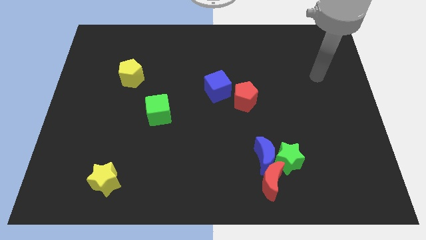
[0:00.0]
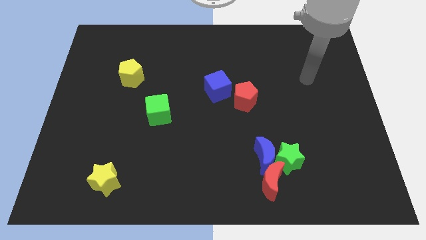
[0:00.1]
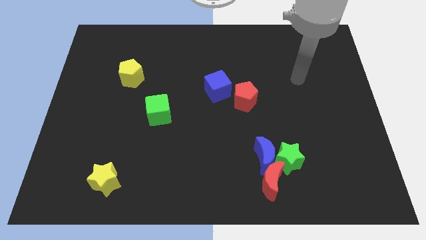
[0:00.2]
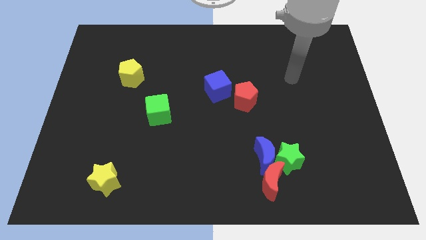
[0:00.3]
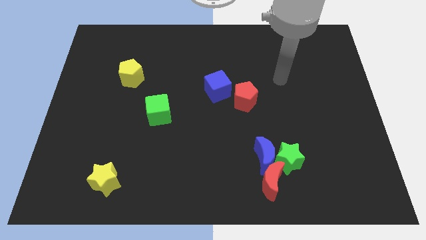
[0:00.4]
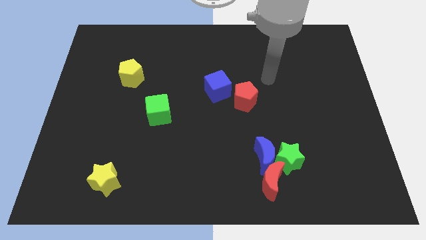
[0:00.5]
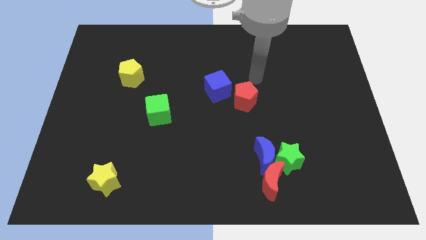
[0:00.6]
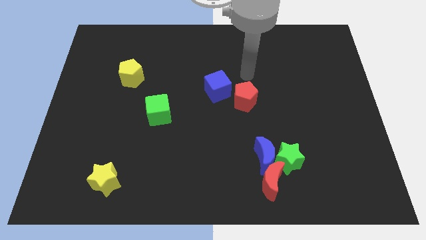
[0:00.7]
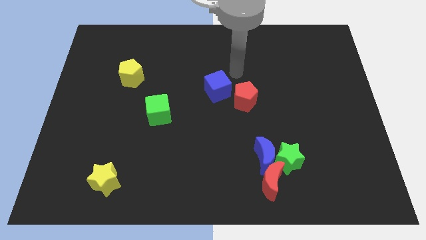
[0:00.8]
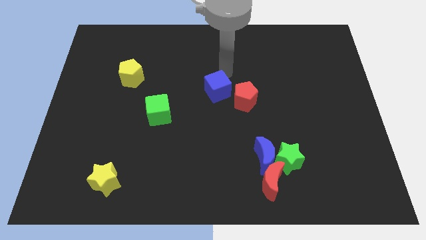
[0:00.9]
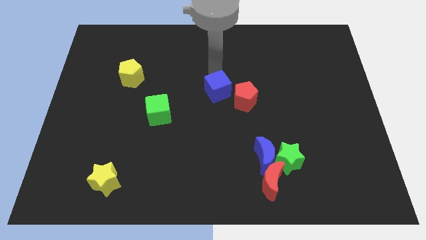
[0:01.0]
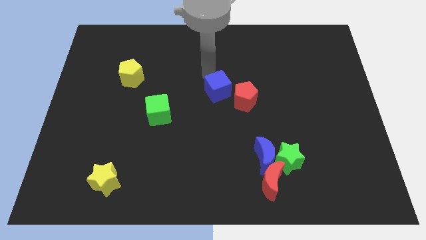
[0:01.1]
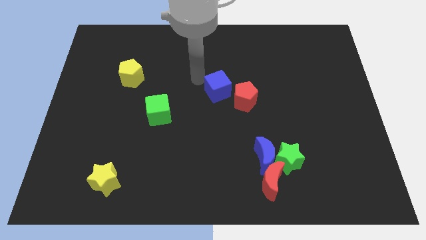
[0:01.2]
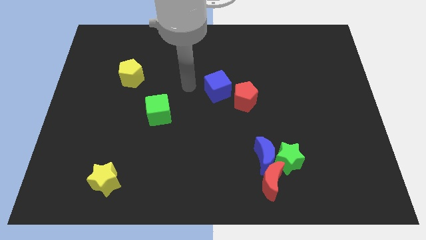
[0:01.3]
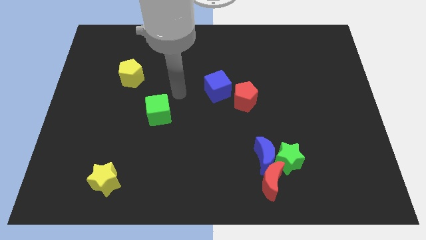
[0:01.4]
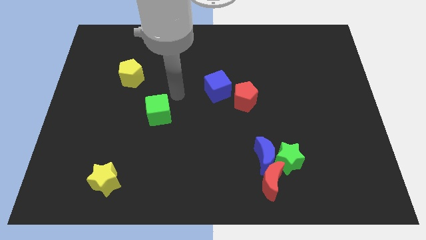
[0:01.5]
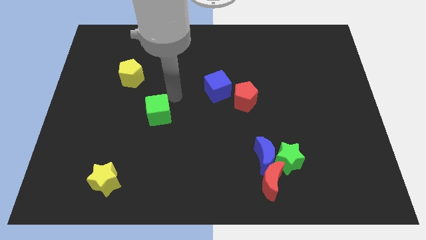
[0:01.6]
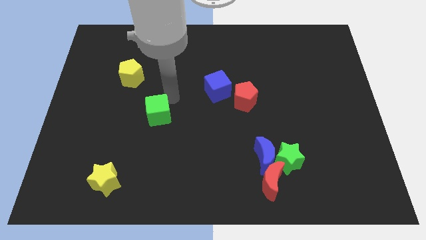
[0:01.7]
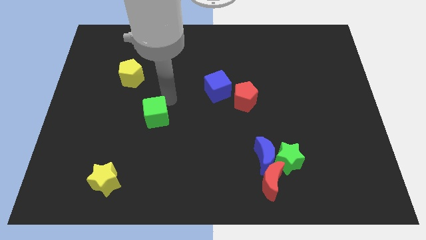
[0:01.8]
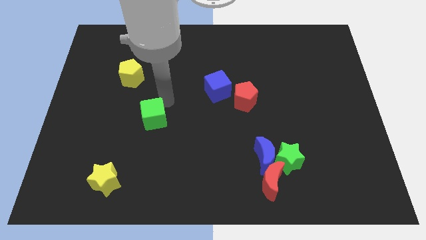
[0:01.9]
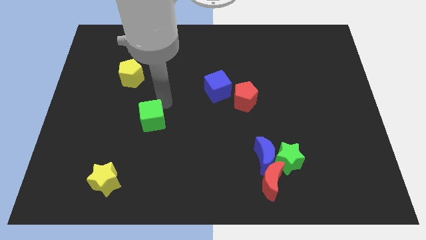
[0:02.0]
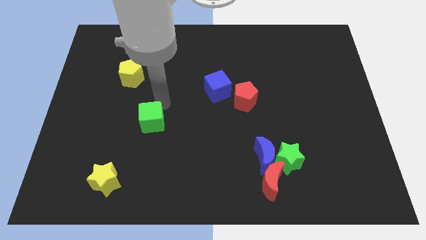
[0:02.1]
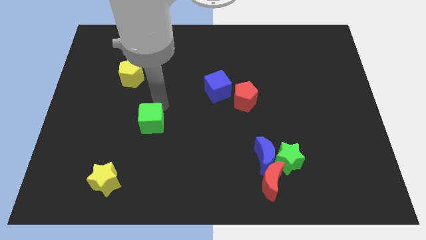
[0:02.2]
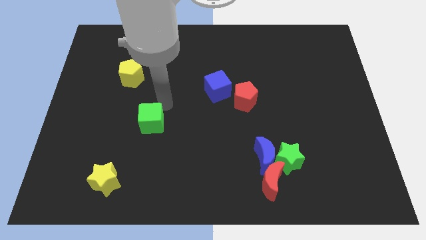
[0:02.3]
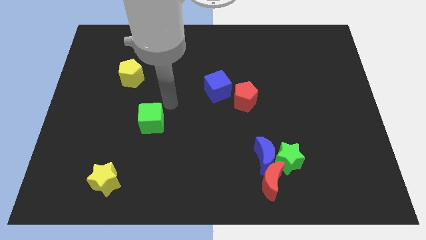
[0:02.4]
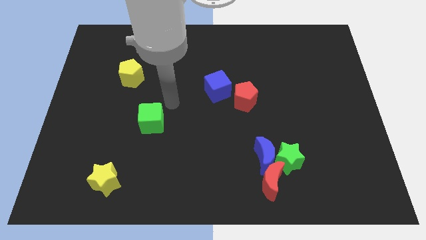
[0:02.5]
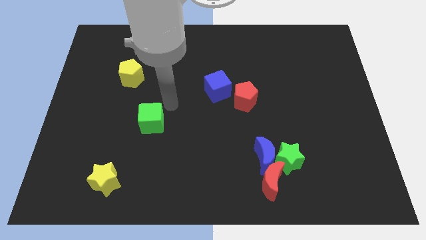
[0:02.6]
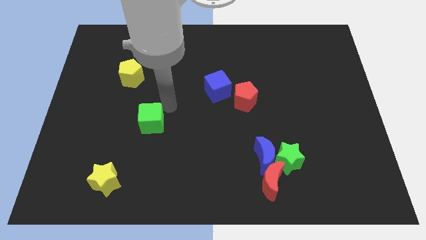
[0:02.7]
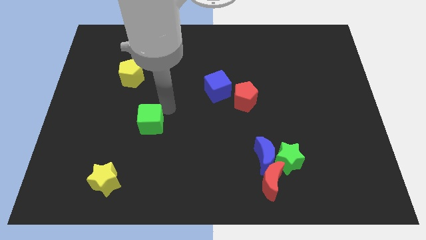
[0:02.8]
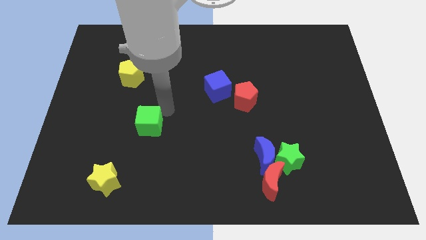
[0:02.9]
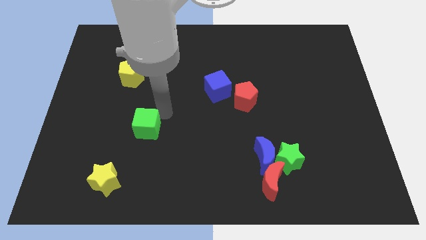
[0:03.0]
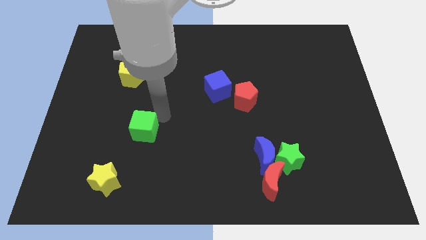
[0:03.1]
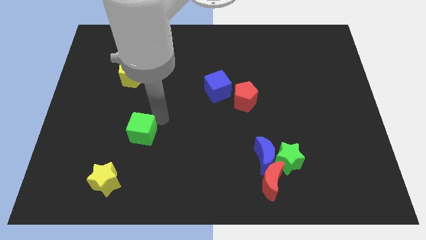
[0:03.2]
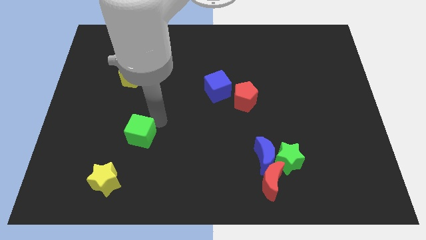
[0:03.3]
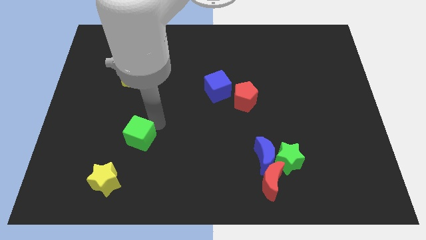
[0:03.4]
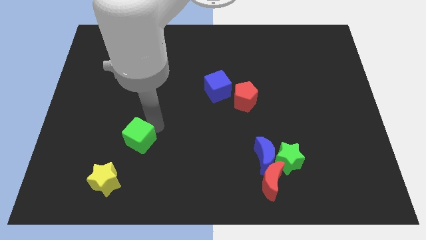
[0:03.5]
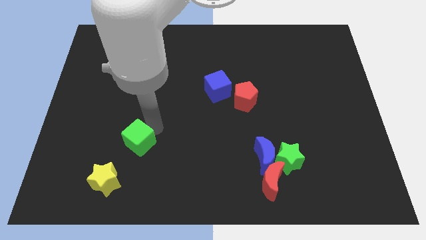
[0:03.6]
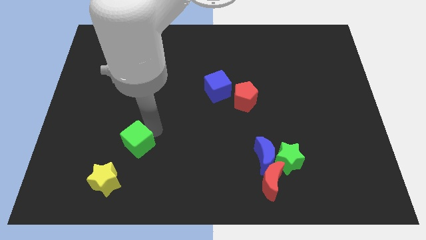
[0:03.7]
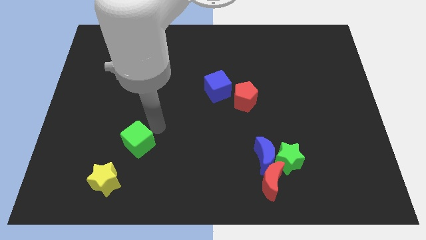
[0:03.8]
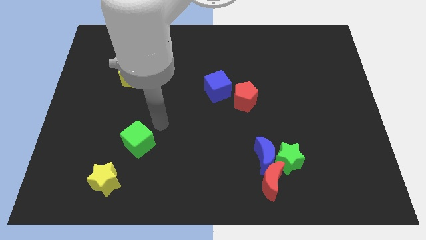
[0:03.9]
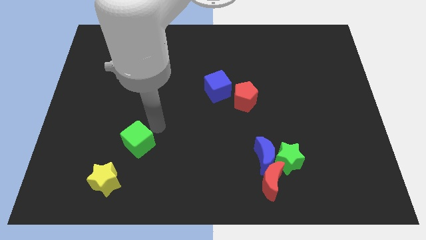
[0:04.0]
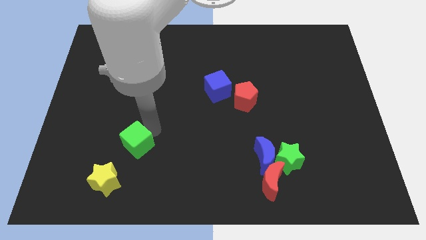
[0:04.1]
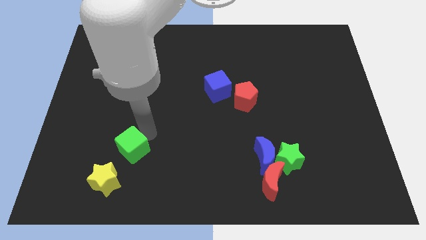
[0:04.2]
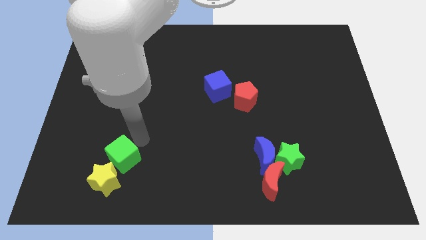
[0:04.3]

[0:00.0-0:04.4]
slide the green cube close to the yellow star

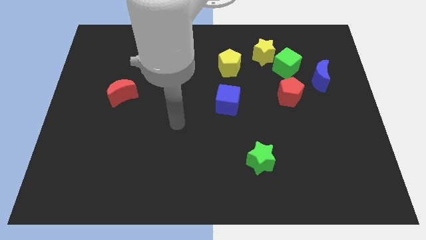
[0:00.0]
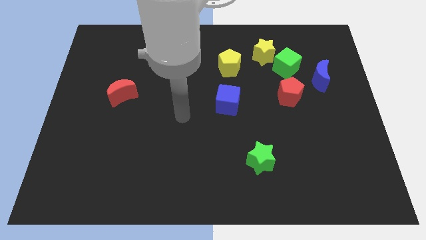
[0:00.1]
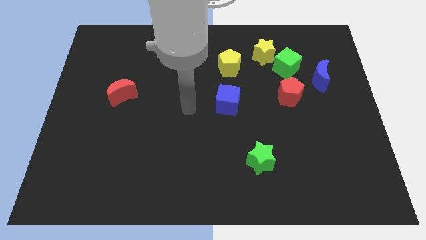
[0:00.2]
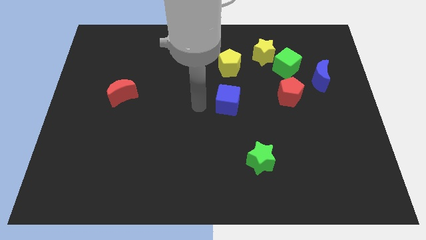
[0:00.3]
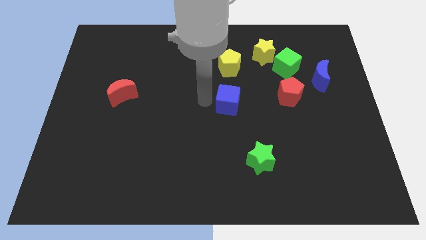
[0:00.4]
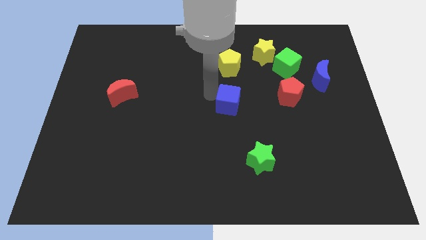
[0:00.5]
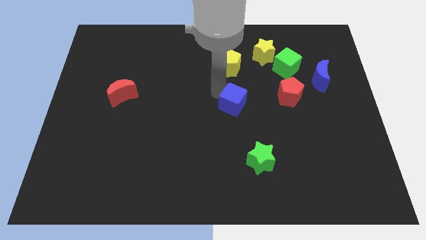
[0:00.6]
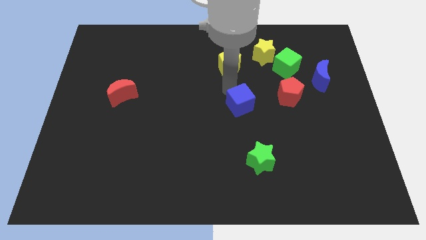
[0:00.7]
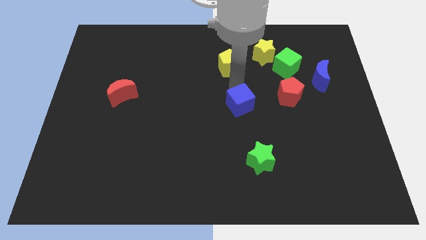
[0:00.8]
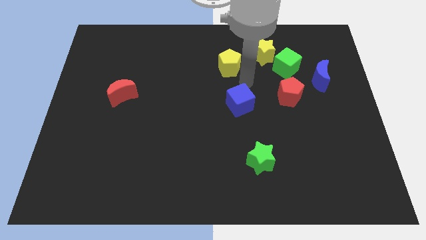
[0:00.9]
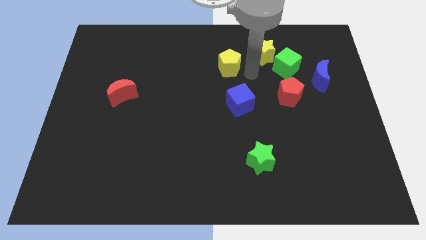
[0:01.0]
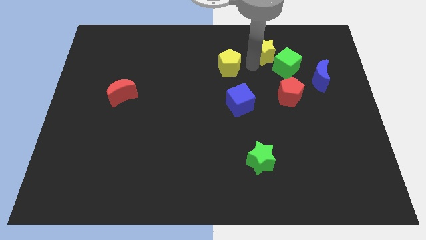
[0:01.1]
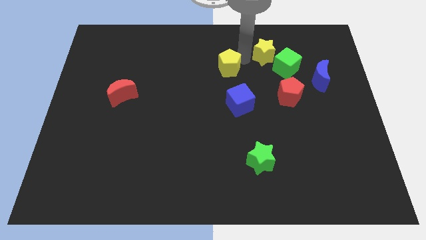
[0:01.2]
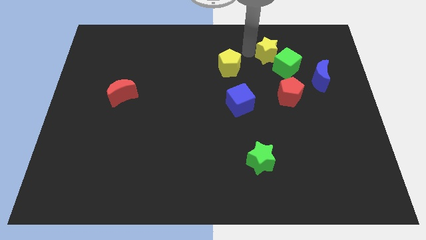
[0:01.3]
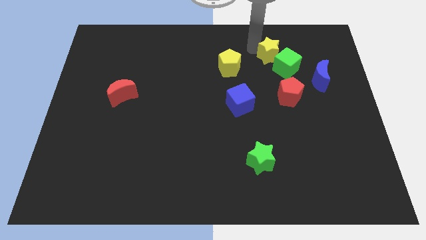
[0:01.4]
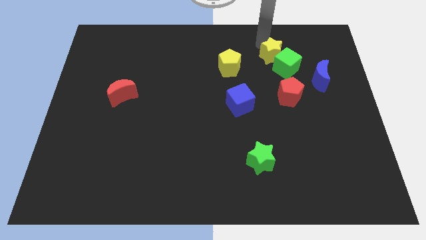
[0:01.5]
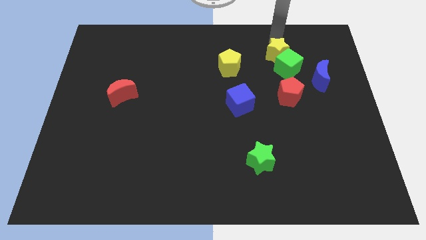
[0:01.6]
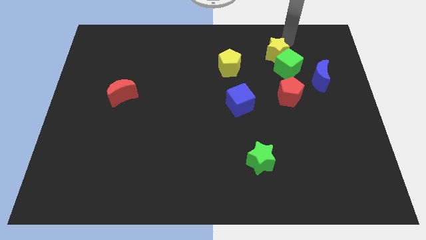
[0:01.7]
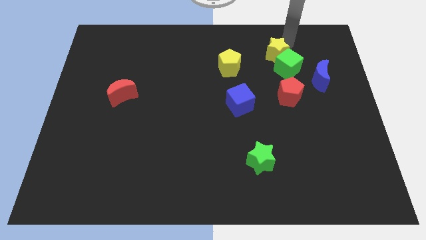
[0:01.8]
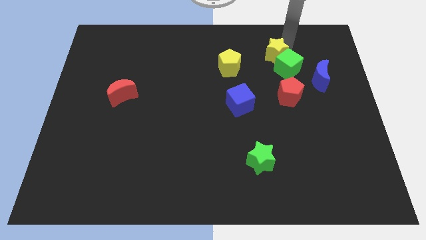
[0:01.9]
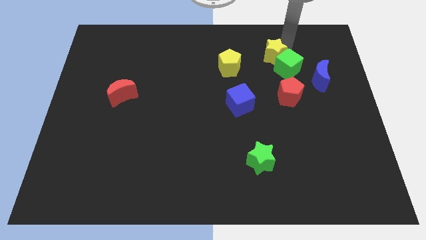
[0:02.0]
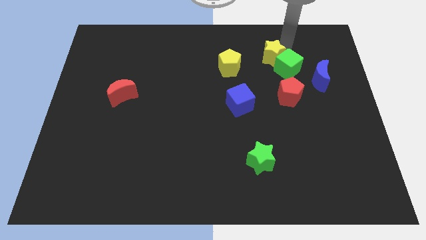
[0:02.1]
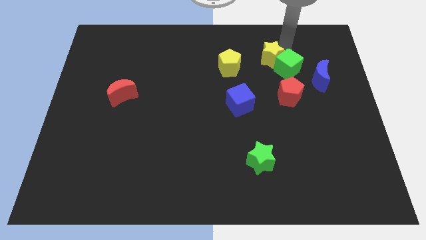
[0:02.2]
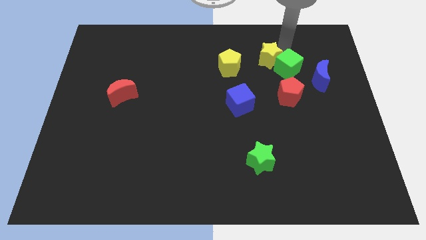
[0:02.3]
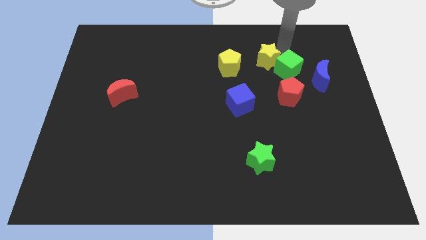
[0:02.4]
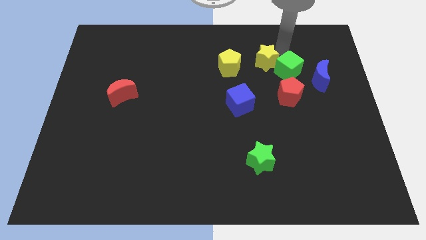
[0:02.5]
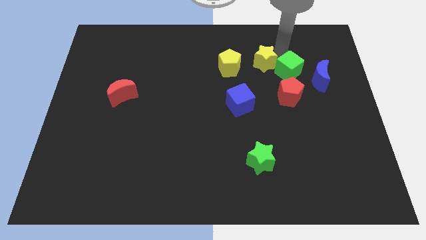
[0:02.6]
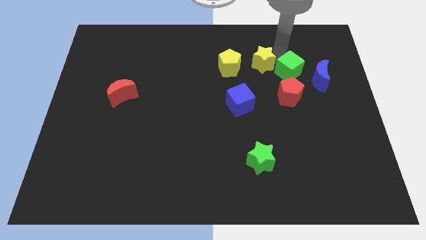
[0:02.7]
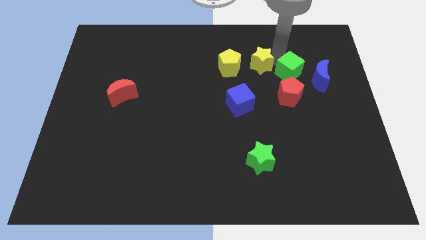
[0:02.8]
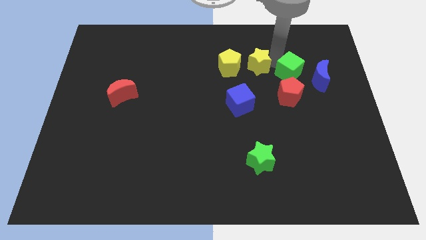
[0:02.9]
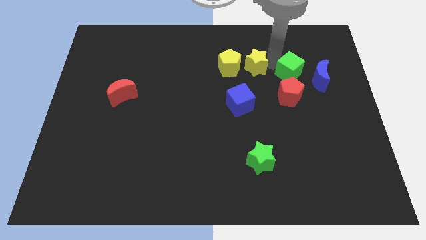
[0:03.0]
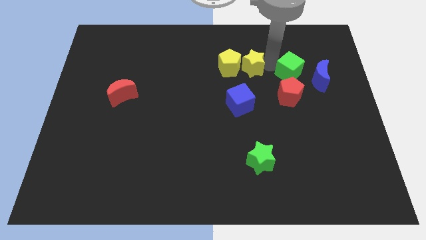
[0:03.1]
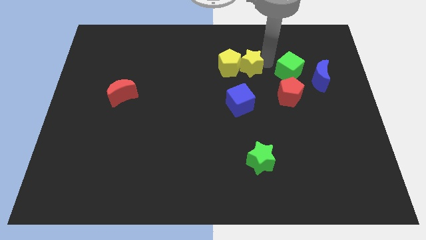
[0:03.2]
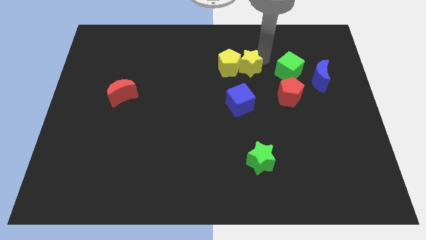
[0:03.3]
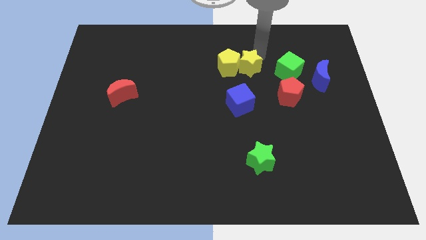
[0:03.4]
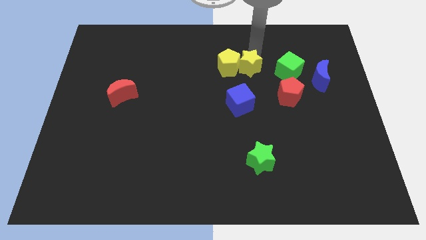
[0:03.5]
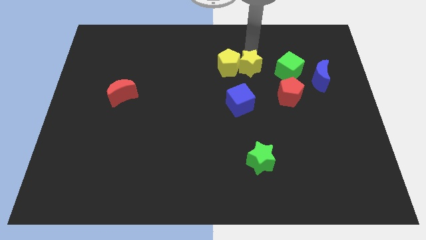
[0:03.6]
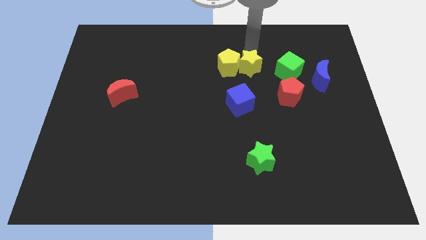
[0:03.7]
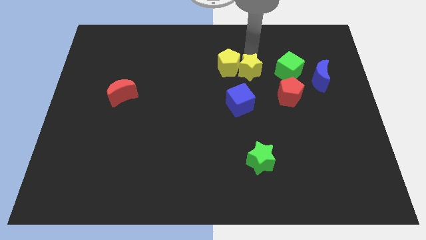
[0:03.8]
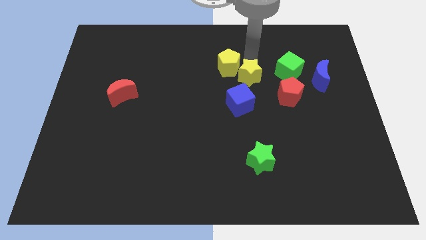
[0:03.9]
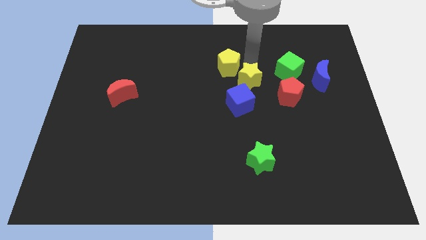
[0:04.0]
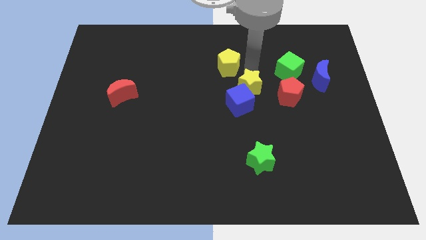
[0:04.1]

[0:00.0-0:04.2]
slide the yellow star next to the blue cube
